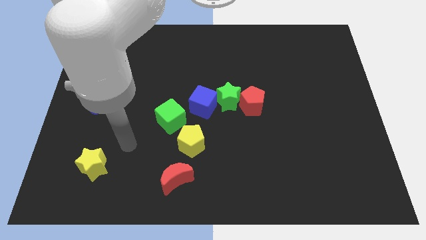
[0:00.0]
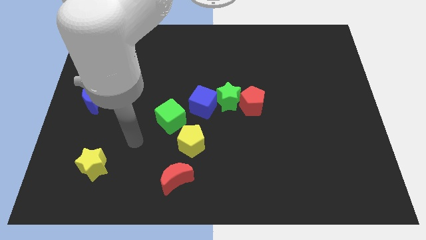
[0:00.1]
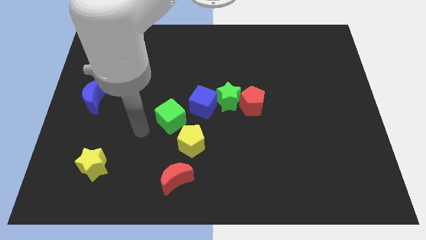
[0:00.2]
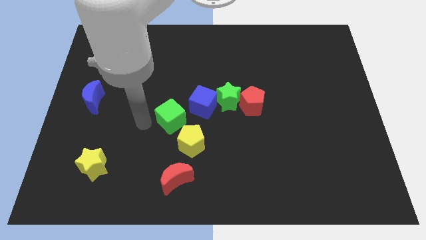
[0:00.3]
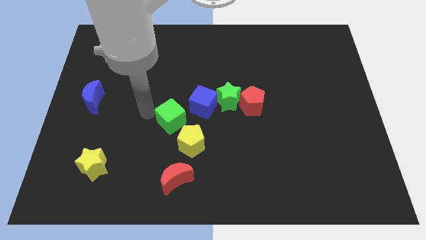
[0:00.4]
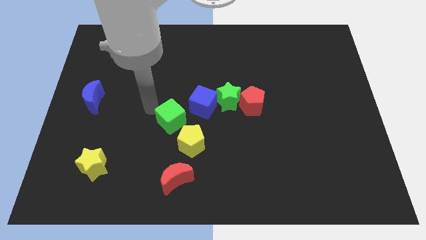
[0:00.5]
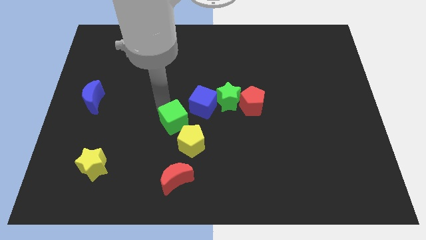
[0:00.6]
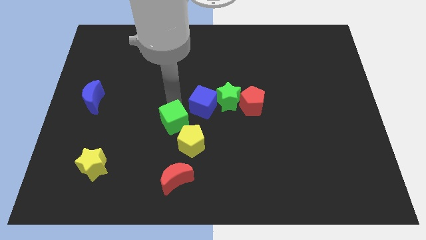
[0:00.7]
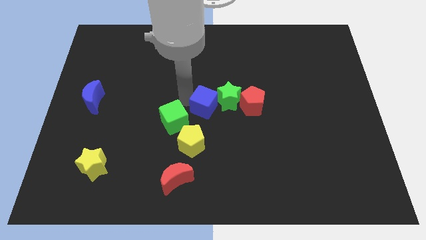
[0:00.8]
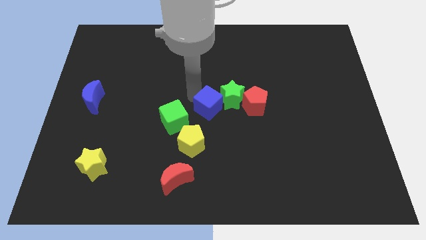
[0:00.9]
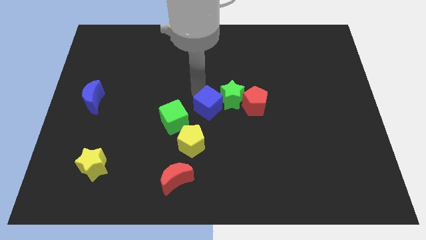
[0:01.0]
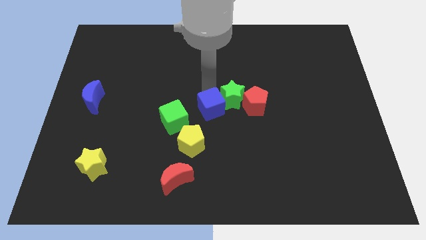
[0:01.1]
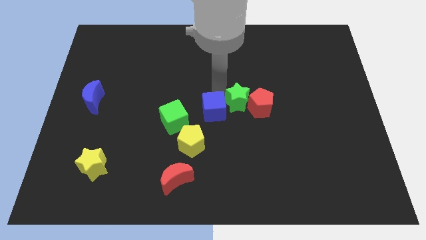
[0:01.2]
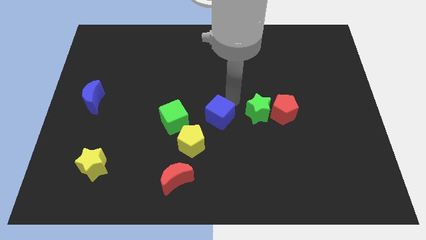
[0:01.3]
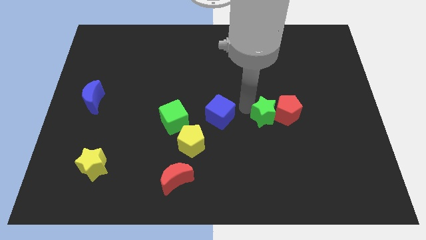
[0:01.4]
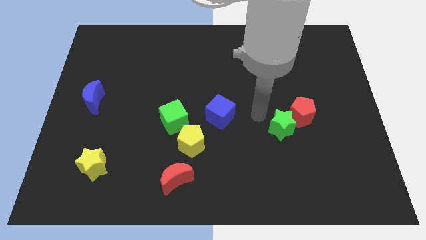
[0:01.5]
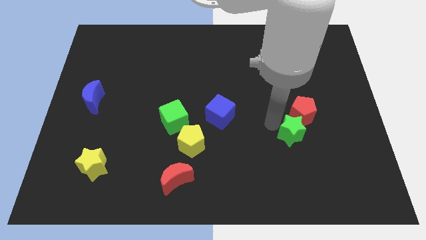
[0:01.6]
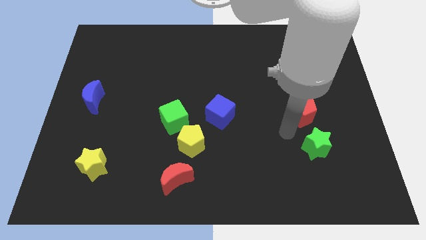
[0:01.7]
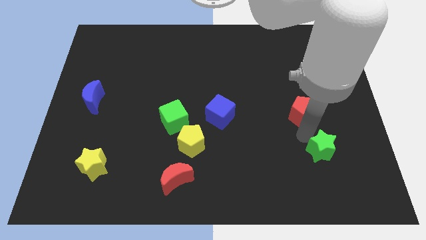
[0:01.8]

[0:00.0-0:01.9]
separate the red pentagon from the green star

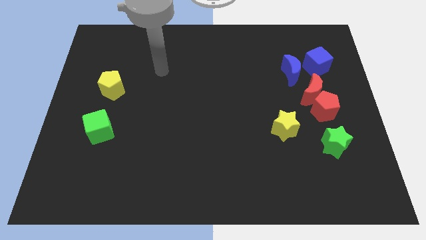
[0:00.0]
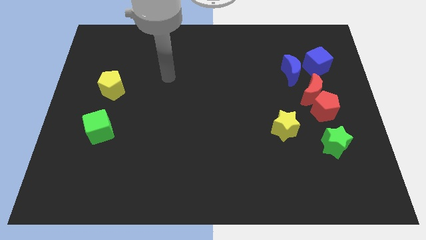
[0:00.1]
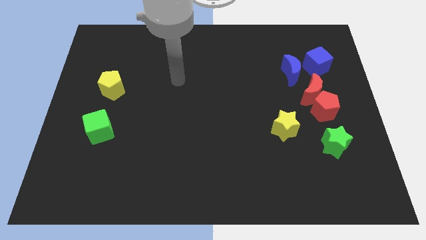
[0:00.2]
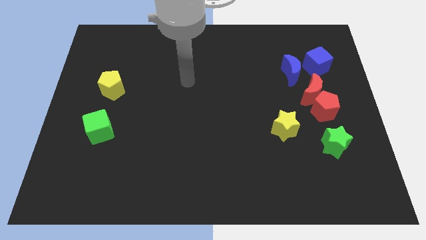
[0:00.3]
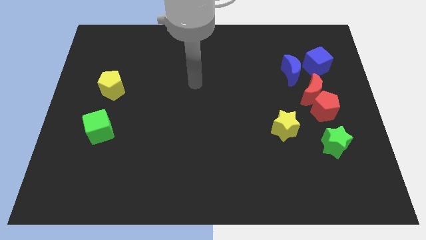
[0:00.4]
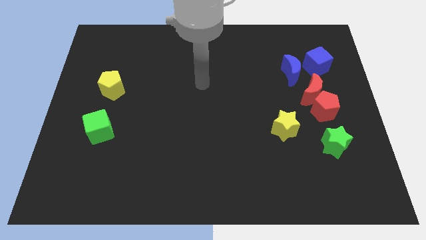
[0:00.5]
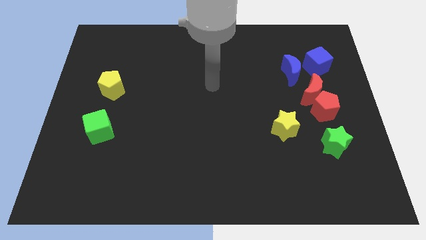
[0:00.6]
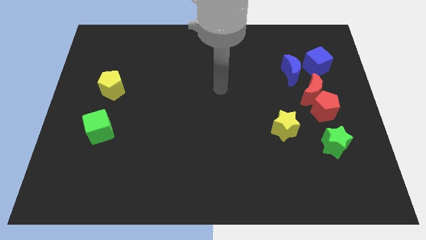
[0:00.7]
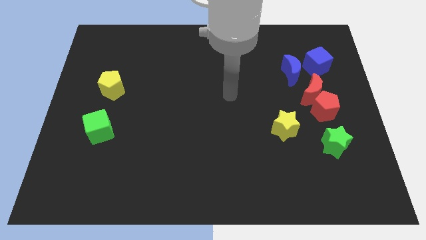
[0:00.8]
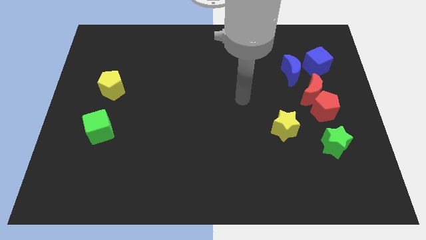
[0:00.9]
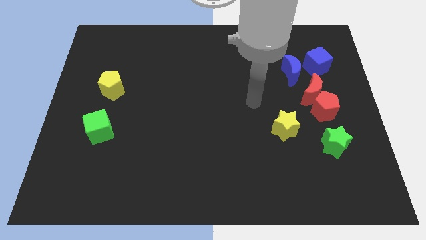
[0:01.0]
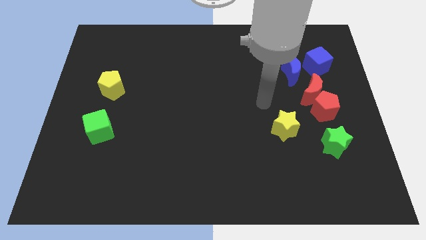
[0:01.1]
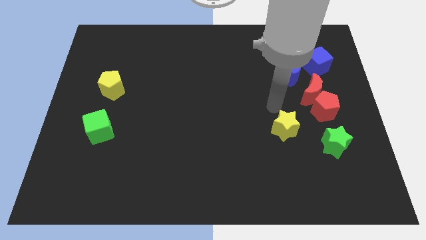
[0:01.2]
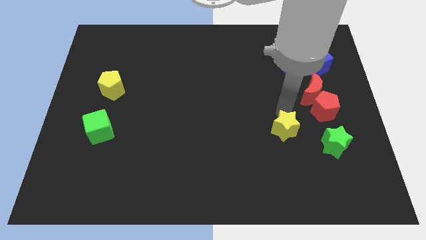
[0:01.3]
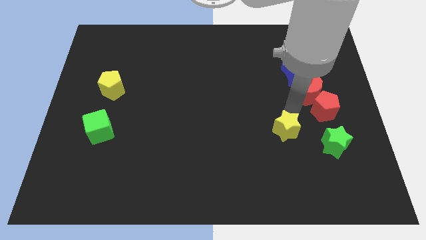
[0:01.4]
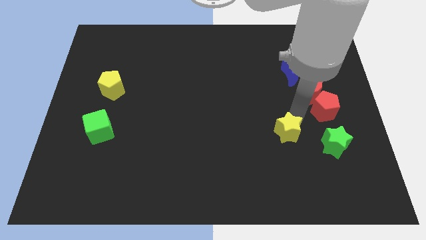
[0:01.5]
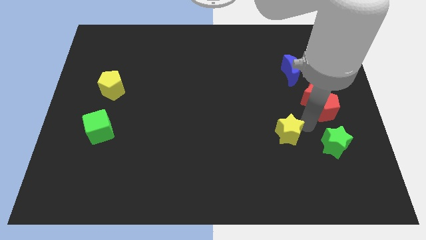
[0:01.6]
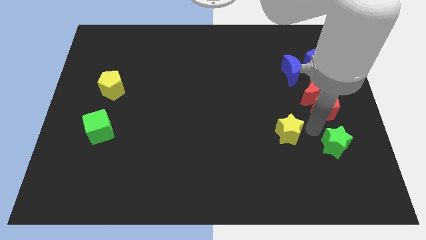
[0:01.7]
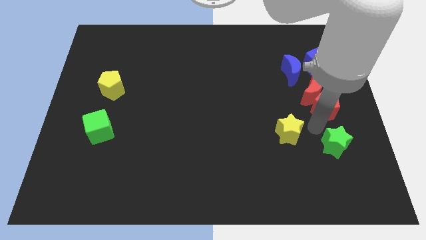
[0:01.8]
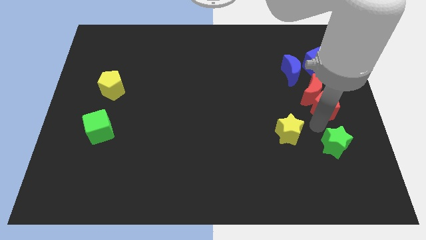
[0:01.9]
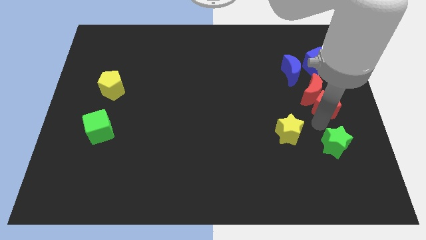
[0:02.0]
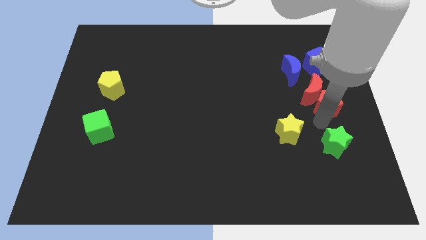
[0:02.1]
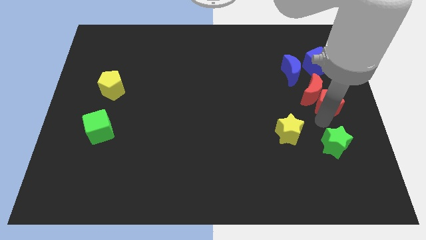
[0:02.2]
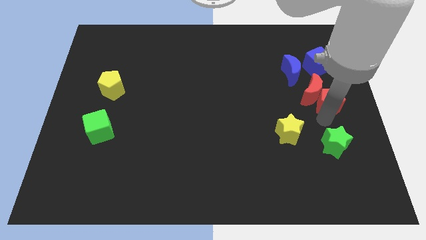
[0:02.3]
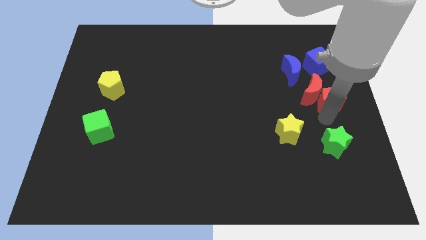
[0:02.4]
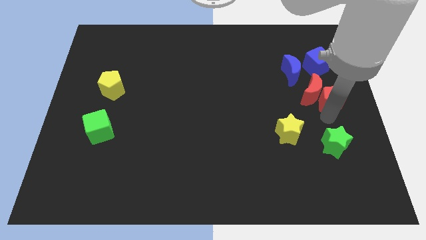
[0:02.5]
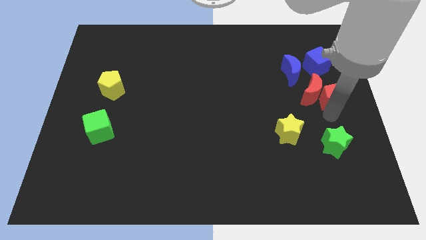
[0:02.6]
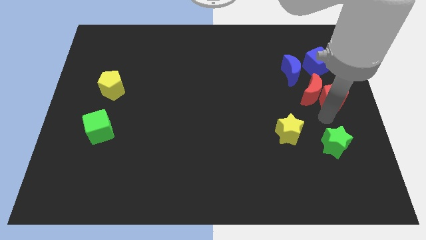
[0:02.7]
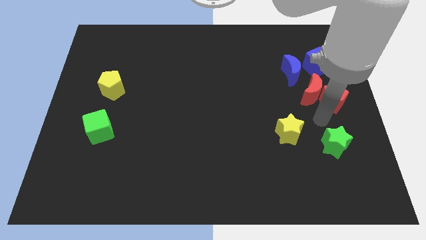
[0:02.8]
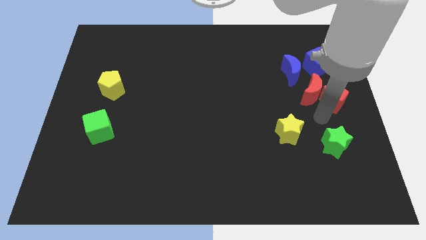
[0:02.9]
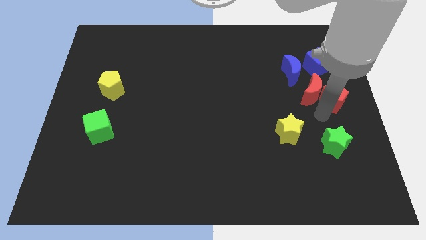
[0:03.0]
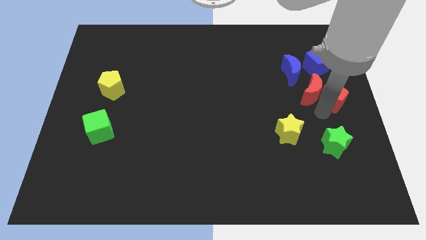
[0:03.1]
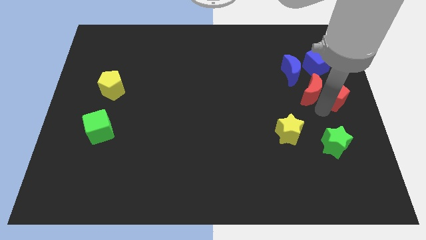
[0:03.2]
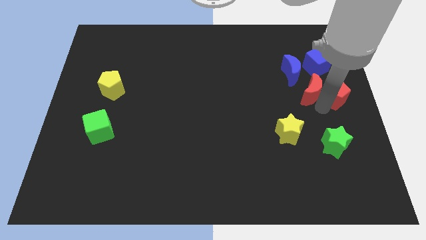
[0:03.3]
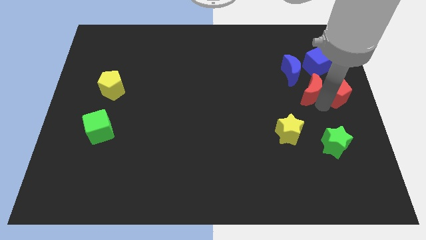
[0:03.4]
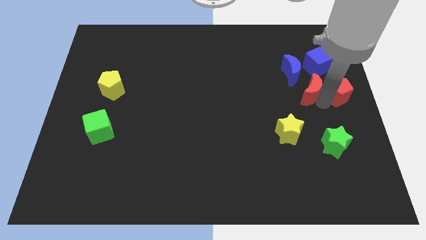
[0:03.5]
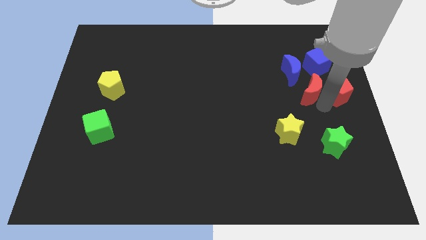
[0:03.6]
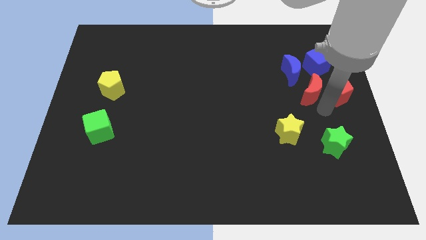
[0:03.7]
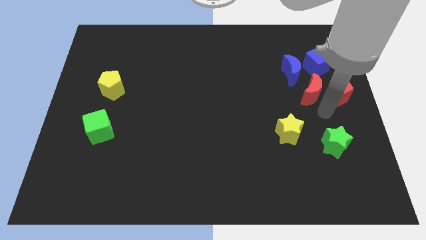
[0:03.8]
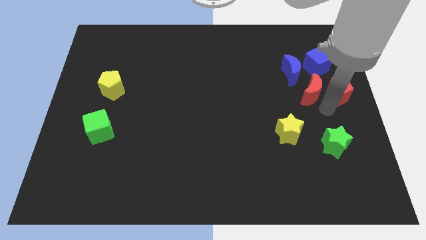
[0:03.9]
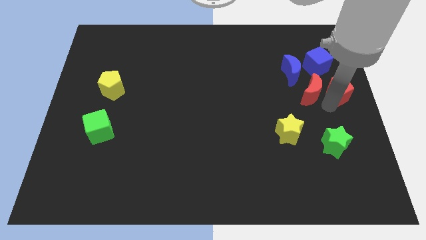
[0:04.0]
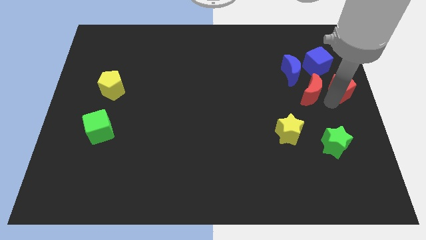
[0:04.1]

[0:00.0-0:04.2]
pull the red pentagon apart from the red moon and green star

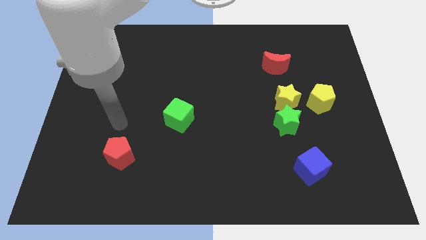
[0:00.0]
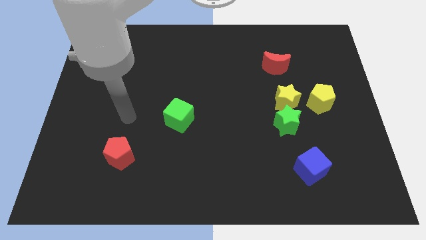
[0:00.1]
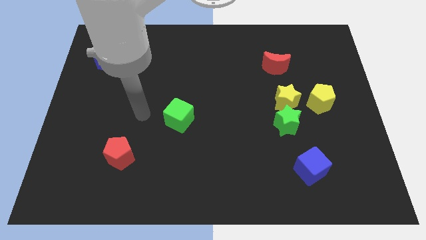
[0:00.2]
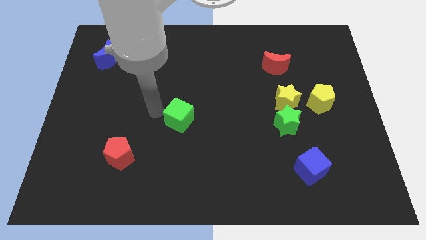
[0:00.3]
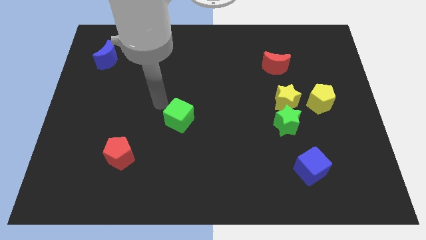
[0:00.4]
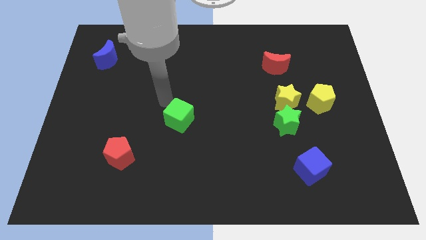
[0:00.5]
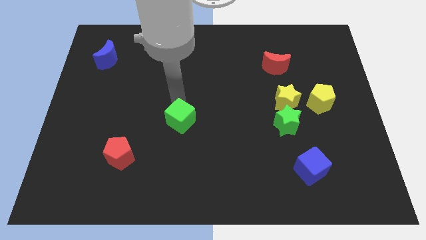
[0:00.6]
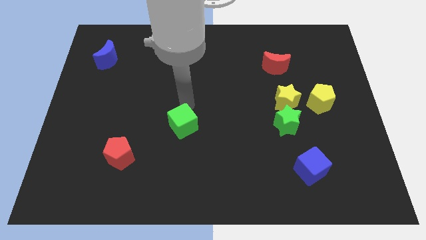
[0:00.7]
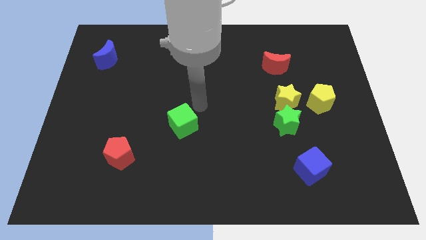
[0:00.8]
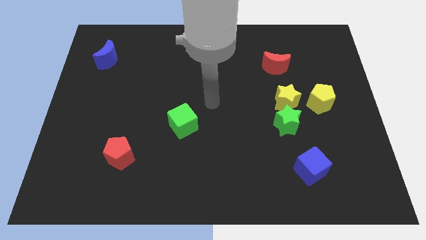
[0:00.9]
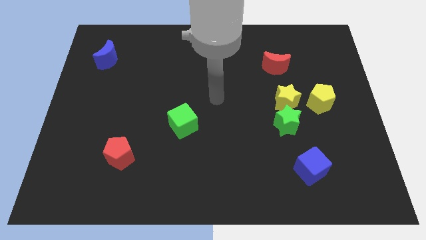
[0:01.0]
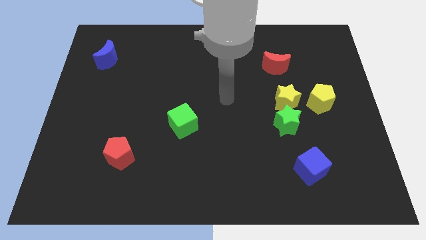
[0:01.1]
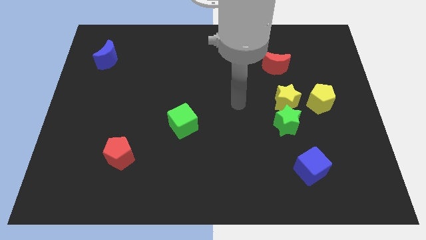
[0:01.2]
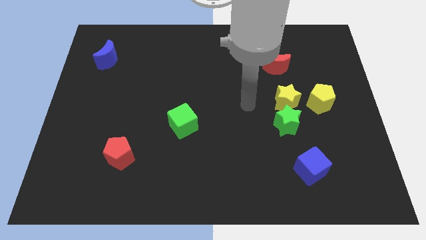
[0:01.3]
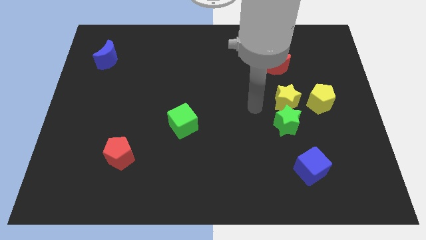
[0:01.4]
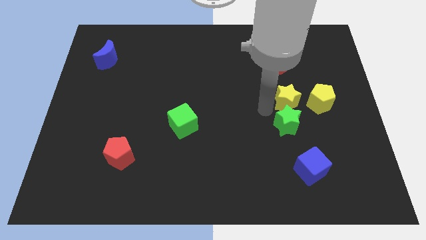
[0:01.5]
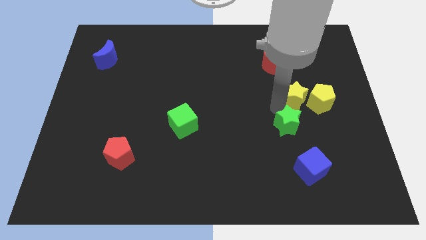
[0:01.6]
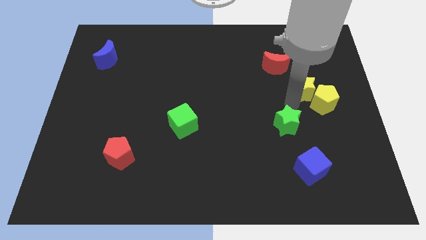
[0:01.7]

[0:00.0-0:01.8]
pull the green star apart from the yellow star

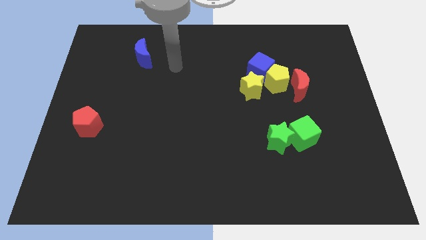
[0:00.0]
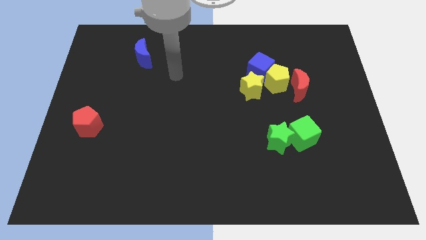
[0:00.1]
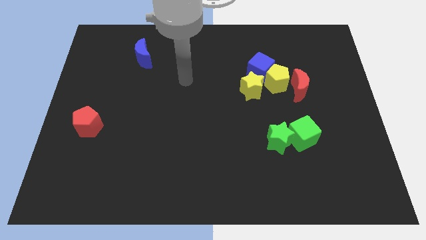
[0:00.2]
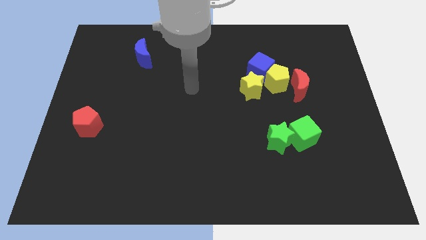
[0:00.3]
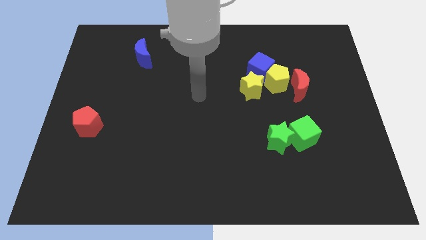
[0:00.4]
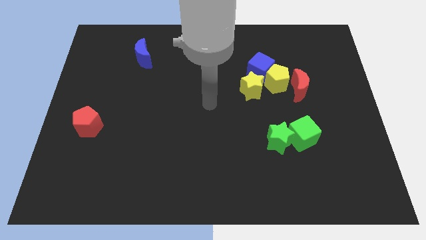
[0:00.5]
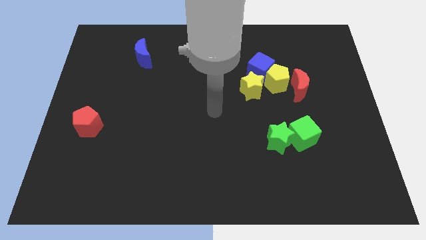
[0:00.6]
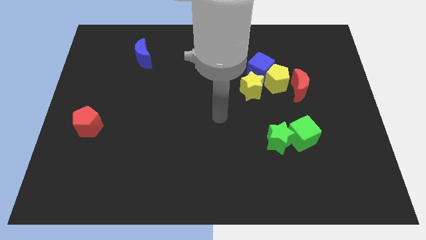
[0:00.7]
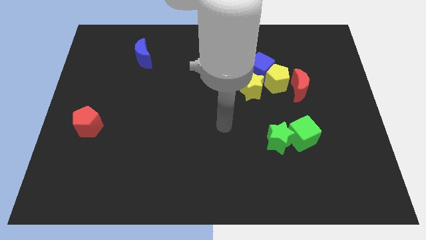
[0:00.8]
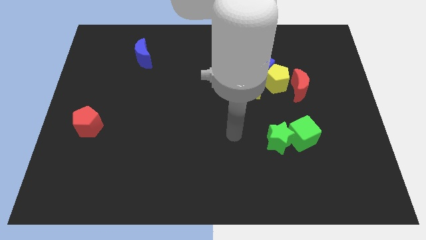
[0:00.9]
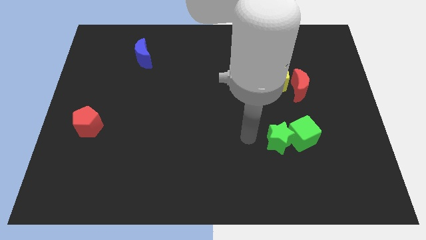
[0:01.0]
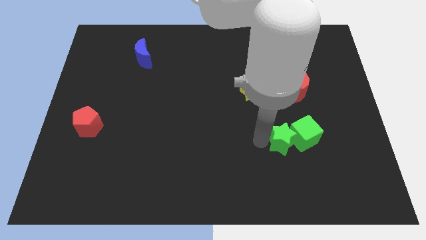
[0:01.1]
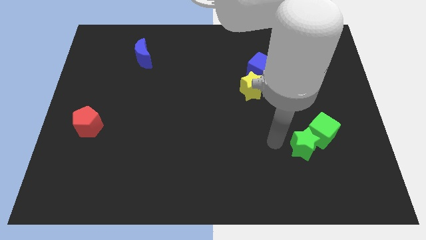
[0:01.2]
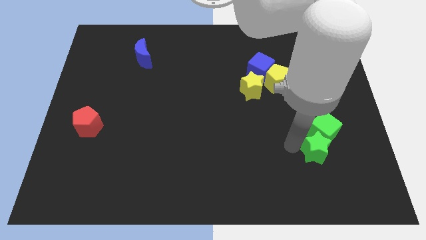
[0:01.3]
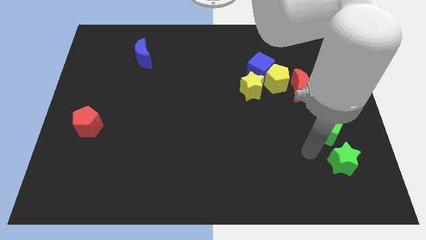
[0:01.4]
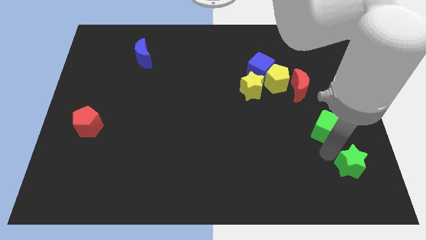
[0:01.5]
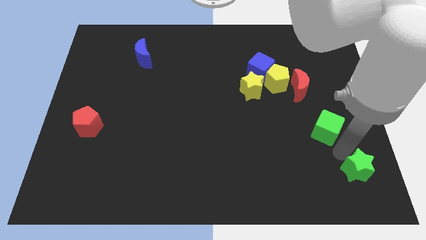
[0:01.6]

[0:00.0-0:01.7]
move the green cube away from the green star
